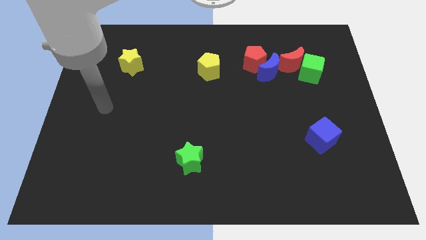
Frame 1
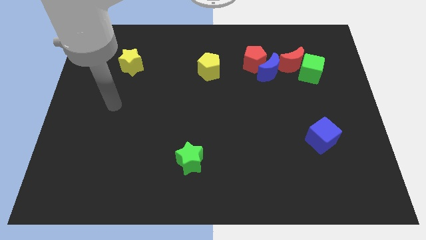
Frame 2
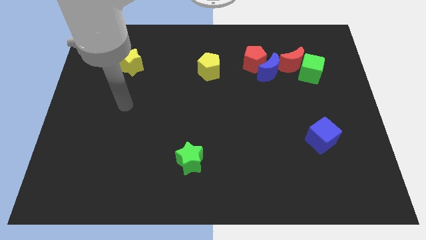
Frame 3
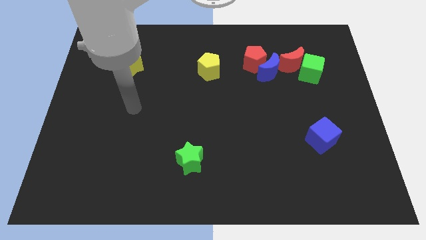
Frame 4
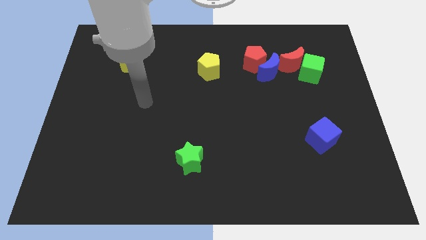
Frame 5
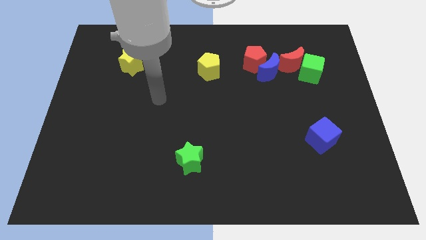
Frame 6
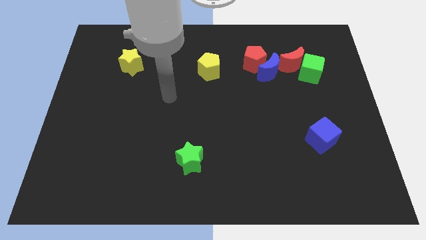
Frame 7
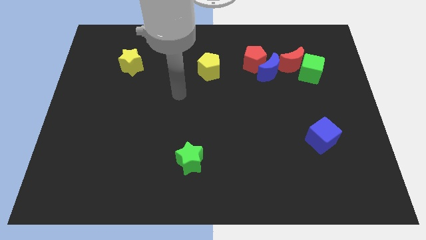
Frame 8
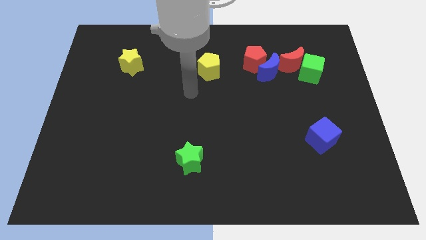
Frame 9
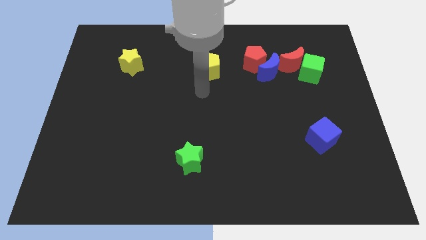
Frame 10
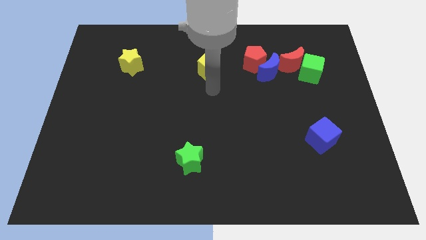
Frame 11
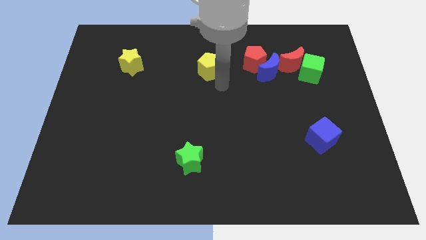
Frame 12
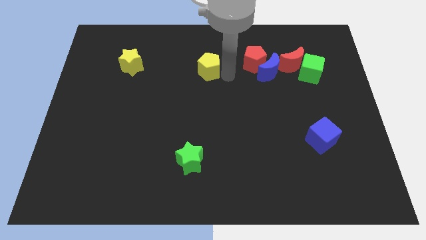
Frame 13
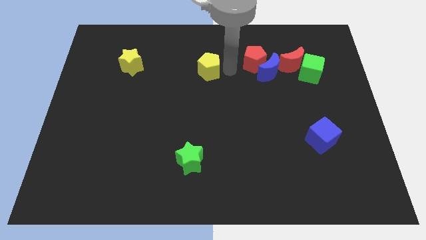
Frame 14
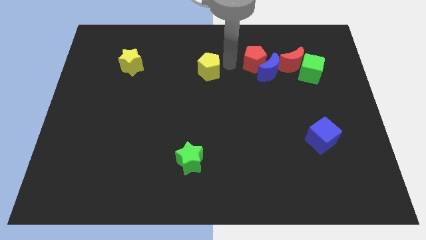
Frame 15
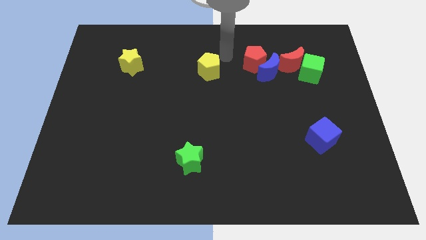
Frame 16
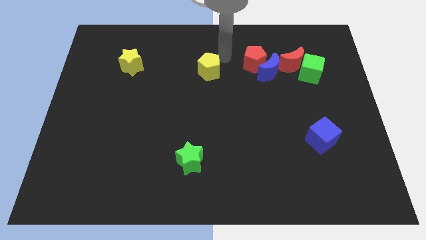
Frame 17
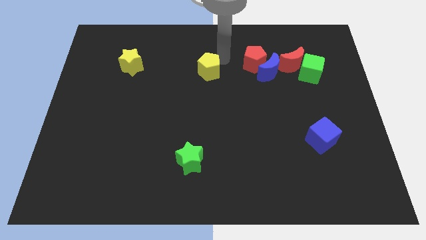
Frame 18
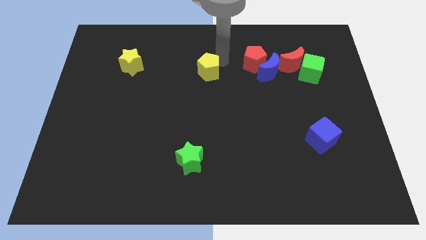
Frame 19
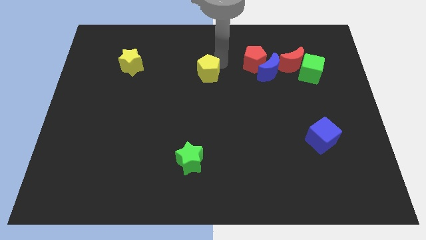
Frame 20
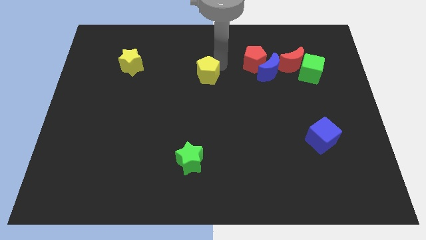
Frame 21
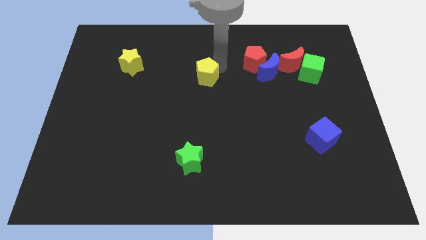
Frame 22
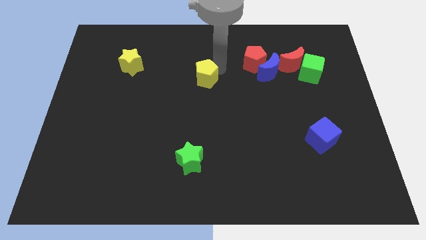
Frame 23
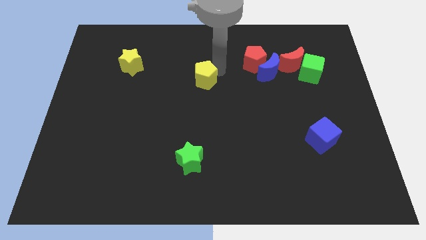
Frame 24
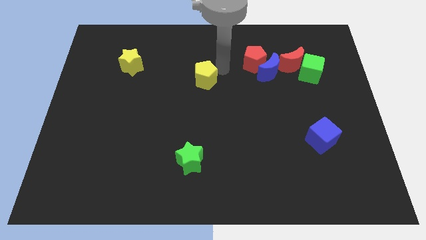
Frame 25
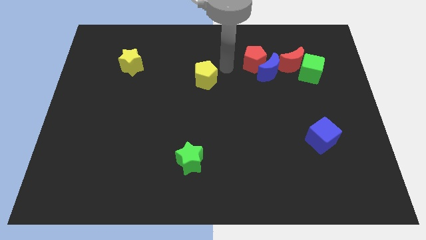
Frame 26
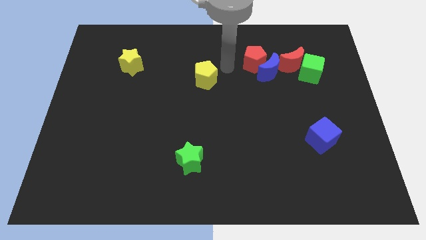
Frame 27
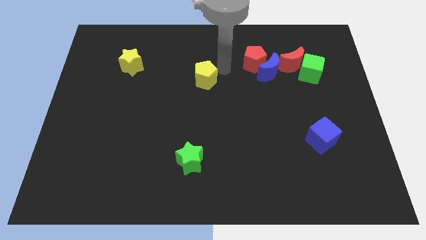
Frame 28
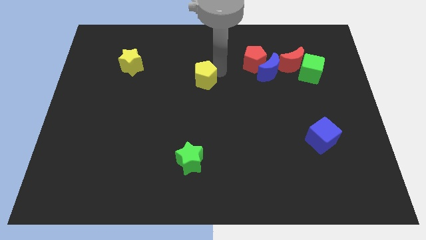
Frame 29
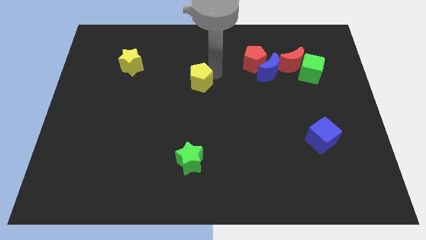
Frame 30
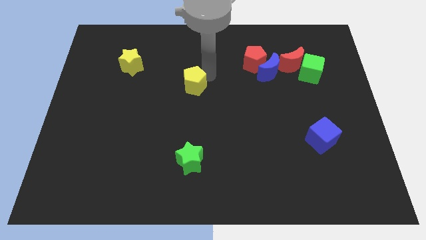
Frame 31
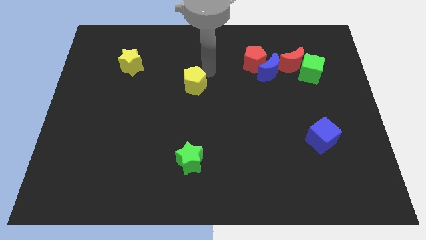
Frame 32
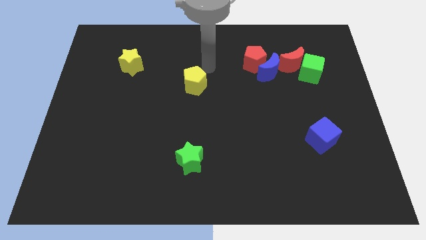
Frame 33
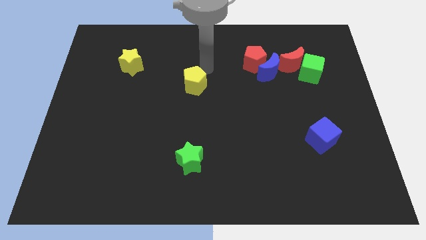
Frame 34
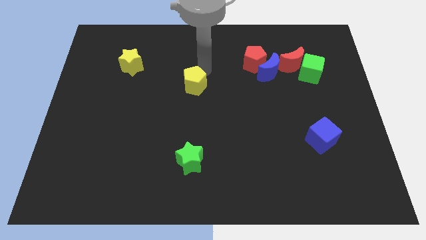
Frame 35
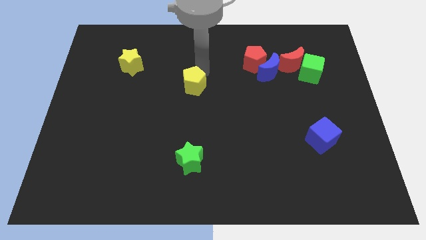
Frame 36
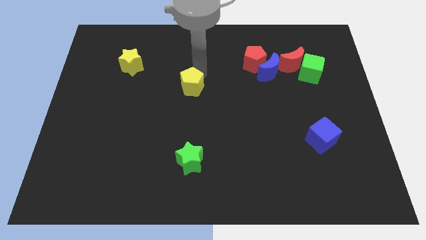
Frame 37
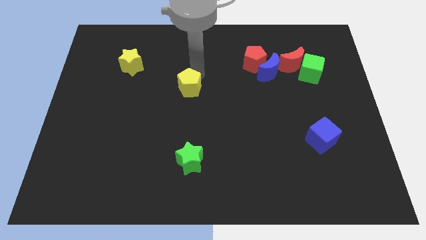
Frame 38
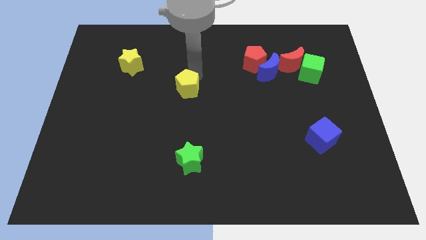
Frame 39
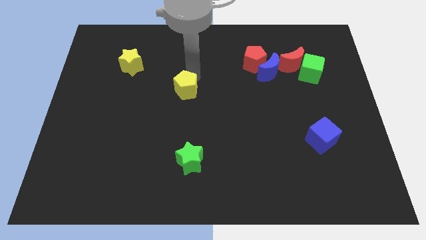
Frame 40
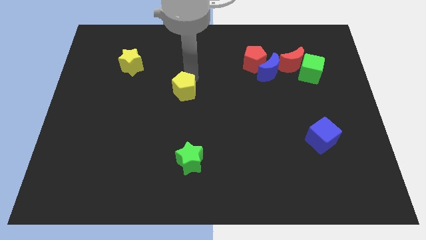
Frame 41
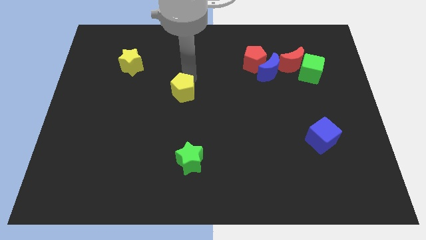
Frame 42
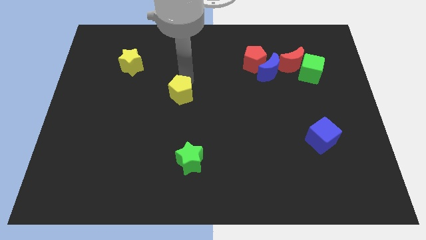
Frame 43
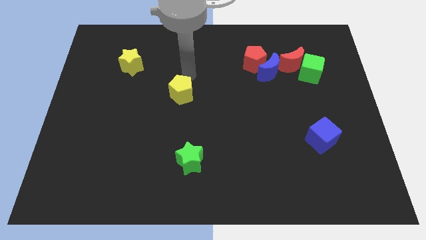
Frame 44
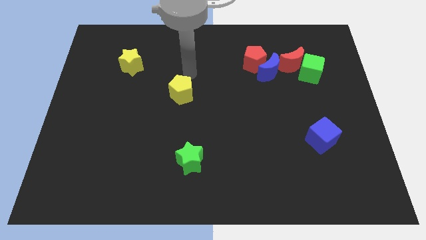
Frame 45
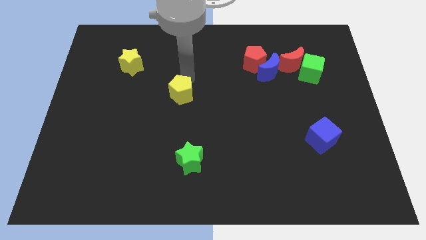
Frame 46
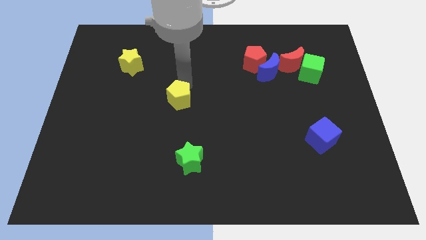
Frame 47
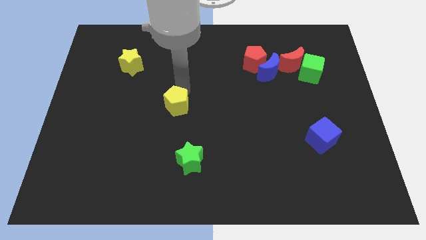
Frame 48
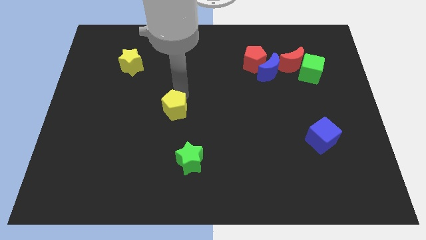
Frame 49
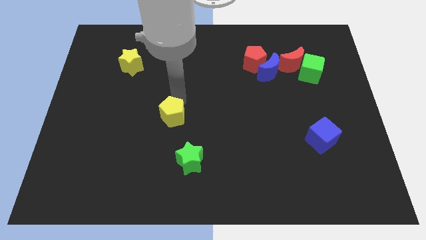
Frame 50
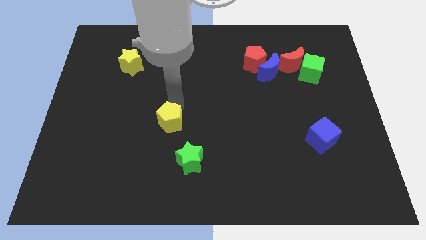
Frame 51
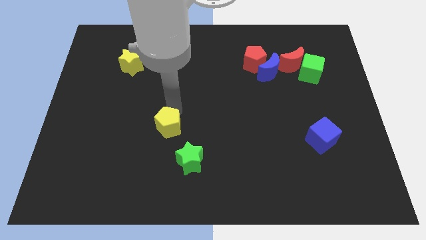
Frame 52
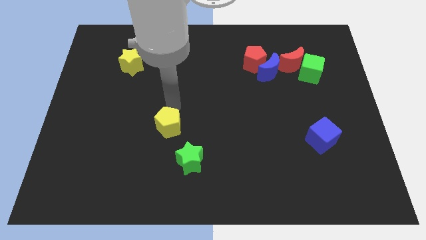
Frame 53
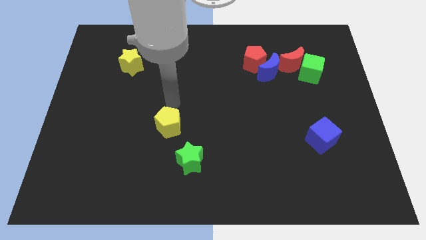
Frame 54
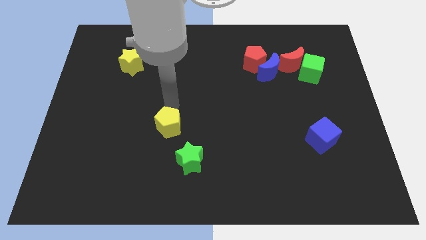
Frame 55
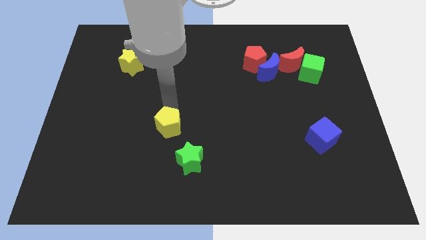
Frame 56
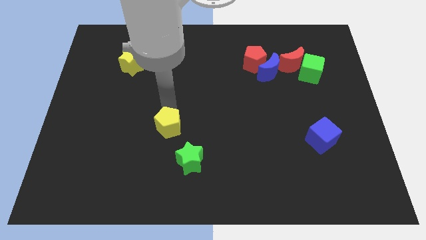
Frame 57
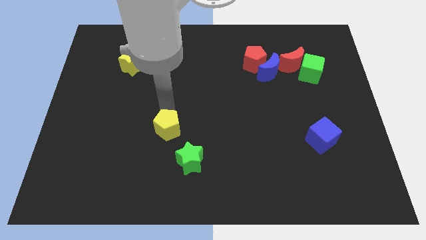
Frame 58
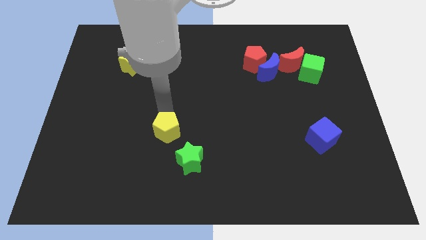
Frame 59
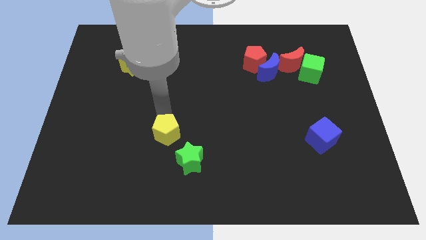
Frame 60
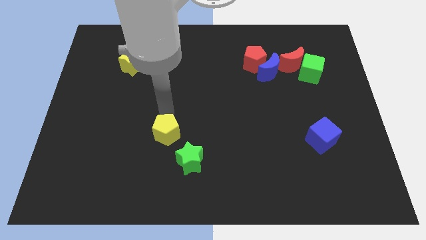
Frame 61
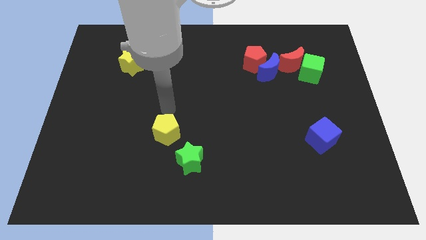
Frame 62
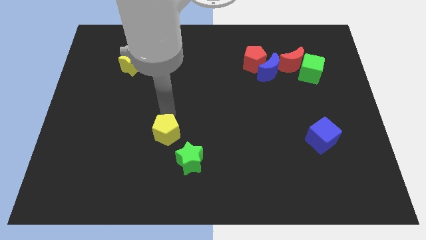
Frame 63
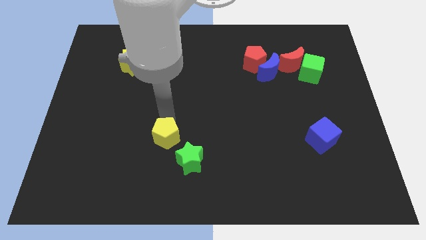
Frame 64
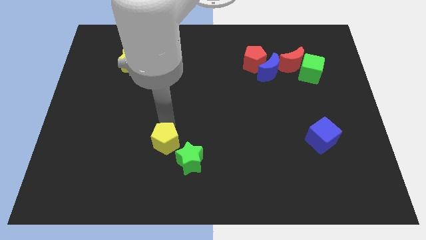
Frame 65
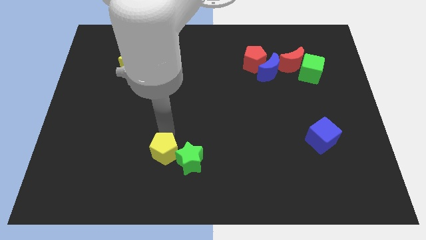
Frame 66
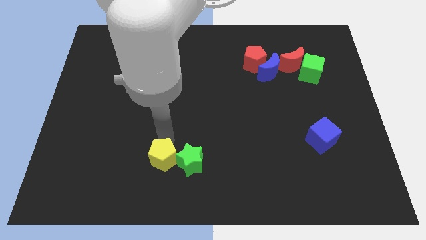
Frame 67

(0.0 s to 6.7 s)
put the yellow pentagon diagonally down and to the left of the green star

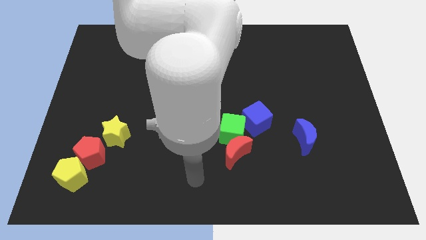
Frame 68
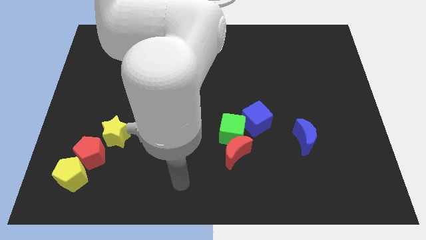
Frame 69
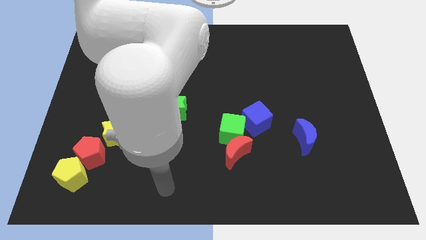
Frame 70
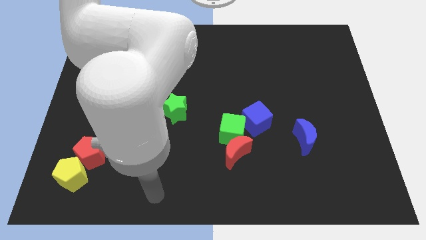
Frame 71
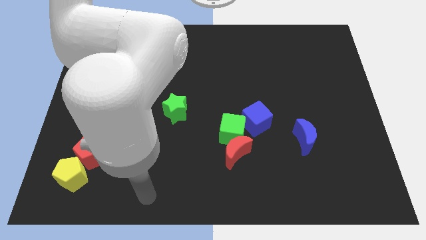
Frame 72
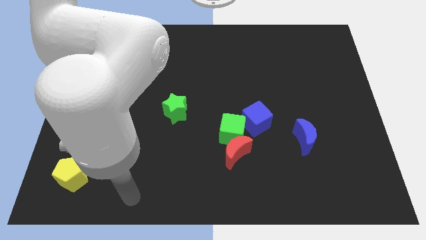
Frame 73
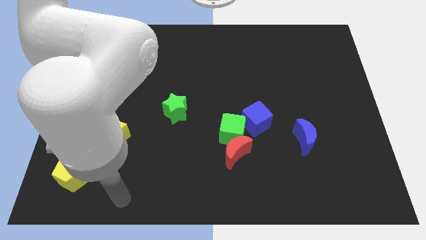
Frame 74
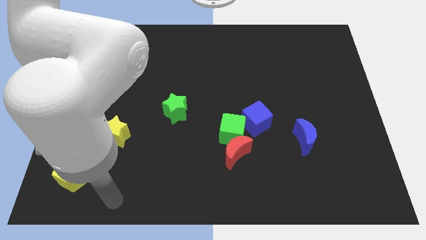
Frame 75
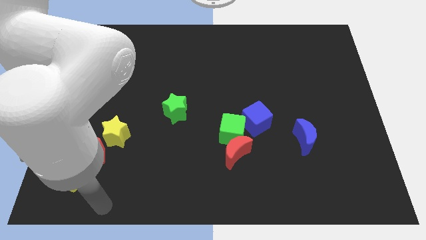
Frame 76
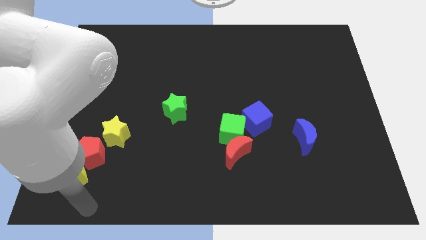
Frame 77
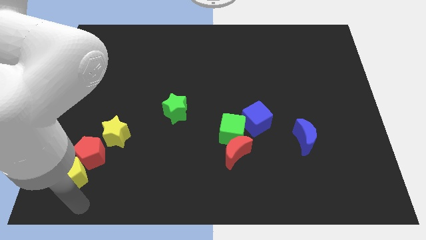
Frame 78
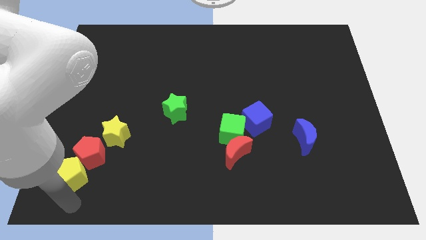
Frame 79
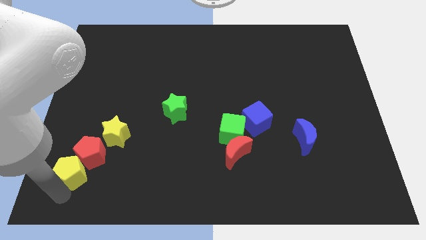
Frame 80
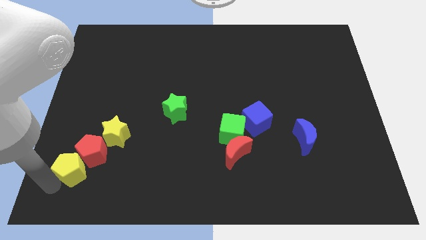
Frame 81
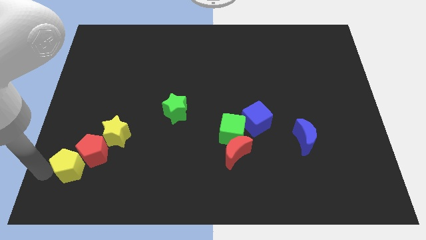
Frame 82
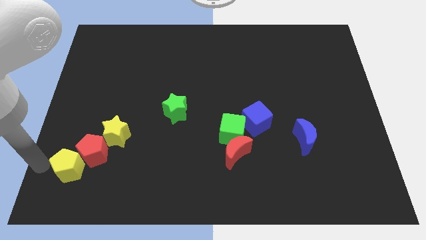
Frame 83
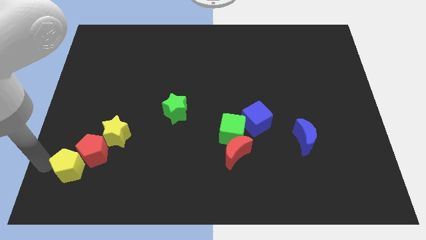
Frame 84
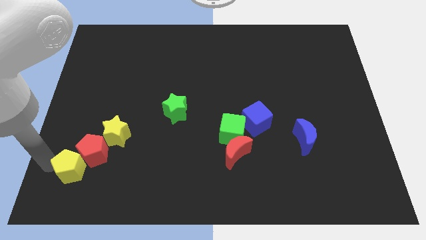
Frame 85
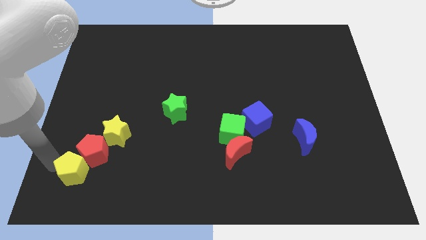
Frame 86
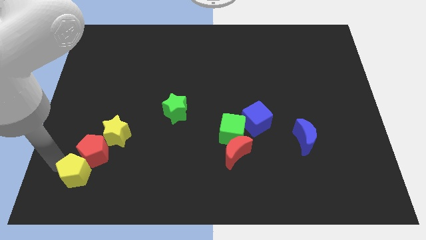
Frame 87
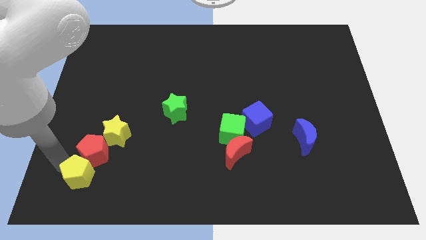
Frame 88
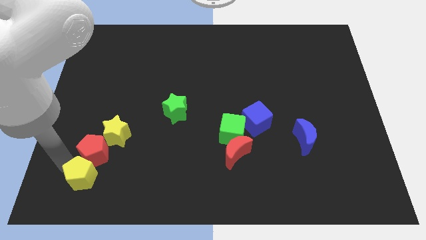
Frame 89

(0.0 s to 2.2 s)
put the yellow pentagon to the bottom right side of the red pentagon
